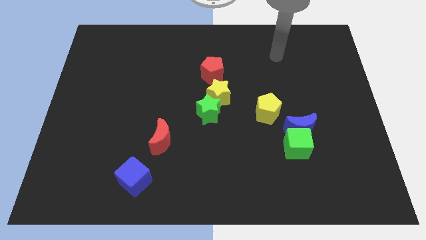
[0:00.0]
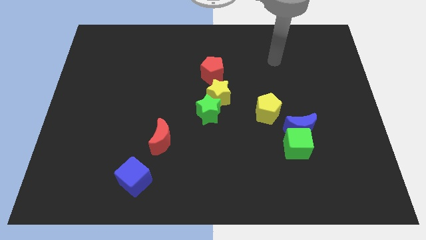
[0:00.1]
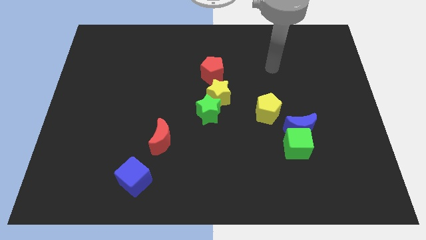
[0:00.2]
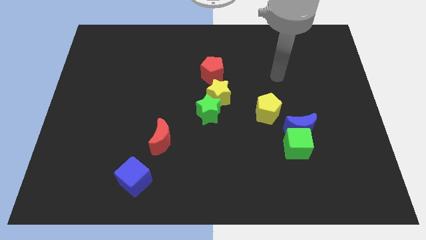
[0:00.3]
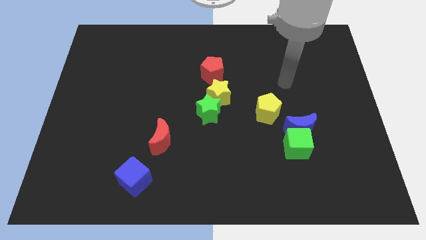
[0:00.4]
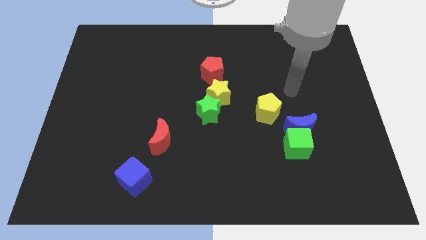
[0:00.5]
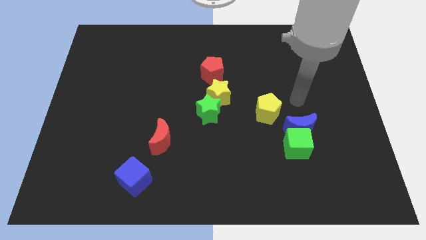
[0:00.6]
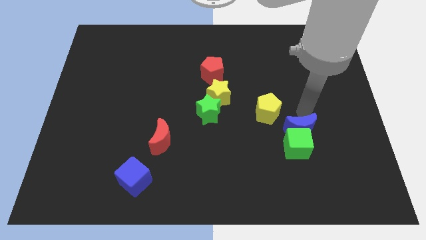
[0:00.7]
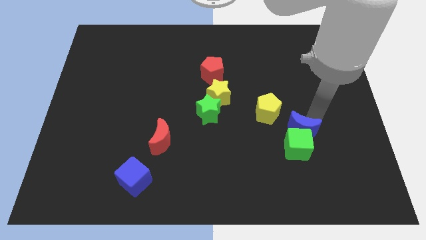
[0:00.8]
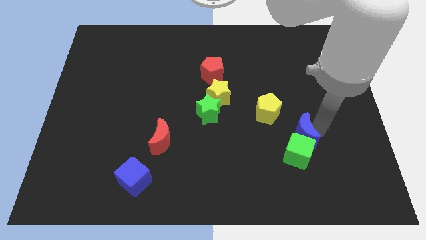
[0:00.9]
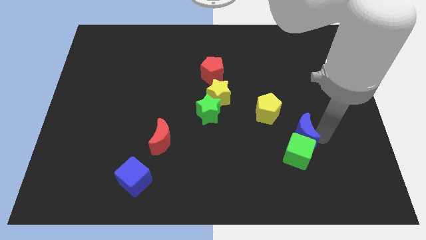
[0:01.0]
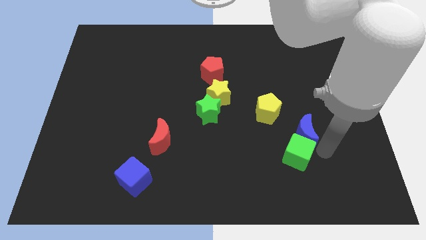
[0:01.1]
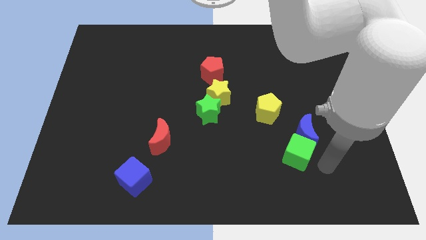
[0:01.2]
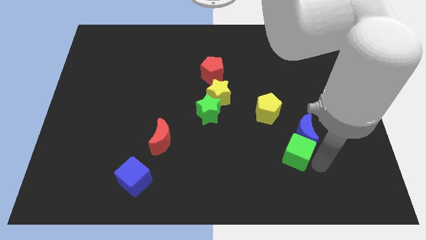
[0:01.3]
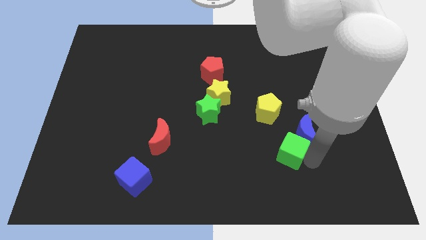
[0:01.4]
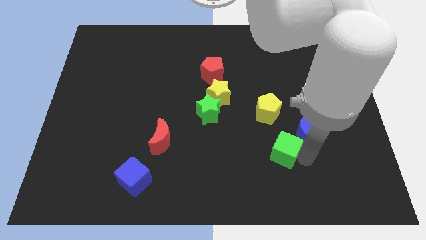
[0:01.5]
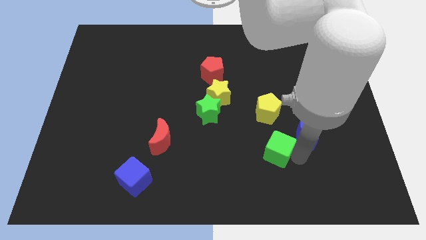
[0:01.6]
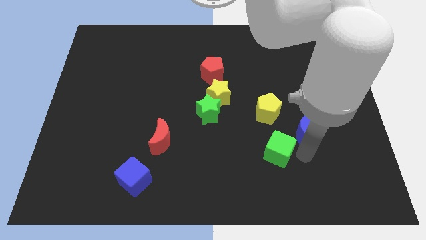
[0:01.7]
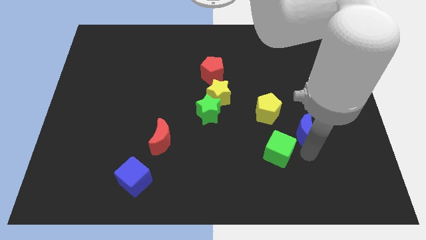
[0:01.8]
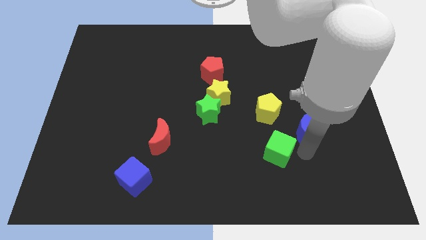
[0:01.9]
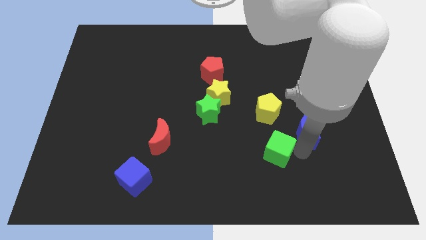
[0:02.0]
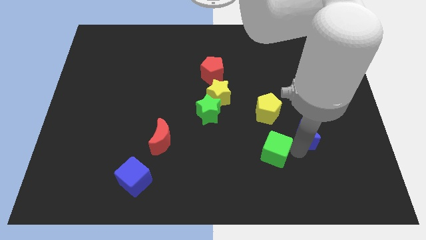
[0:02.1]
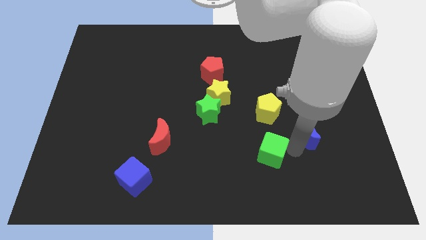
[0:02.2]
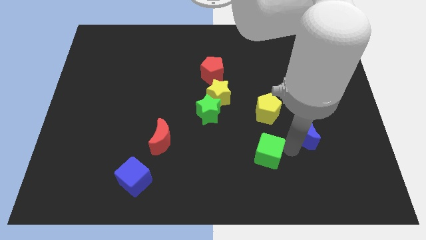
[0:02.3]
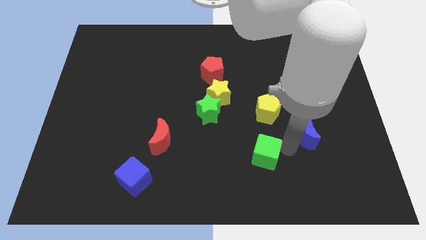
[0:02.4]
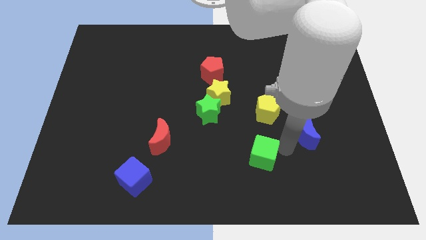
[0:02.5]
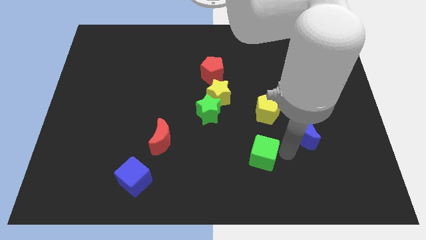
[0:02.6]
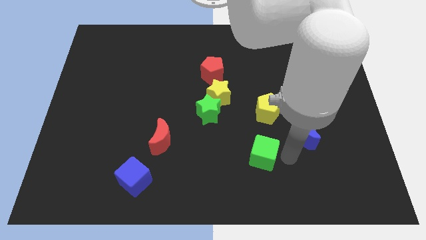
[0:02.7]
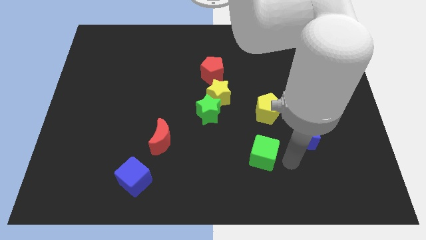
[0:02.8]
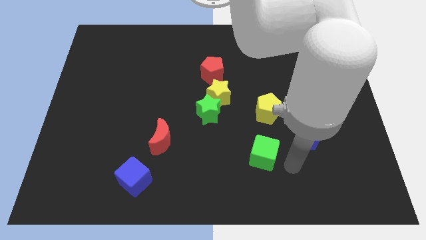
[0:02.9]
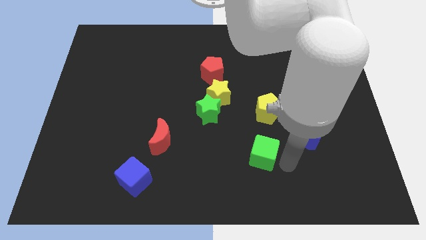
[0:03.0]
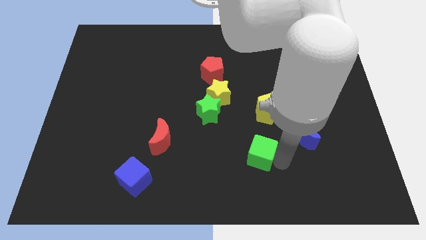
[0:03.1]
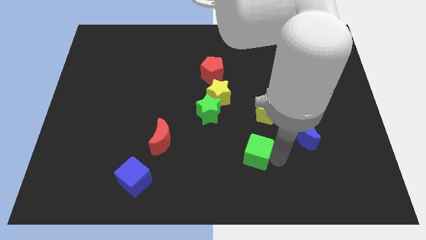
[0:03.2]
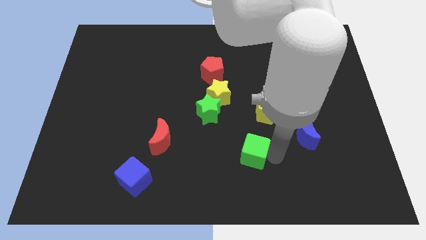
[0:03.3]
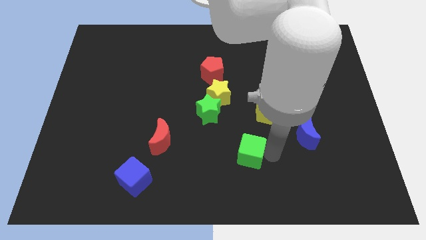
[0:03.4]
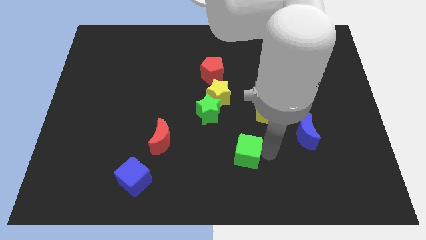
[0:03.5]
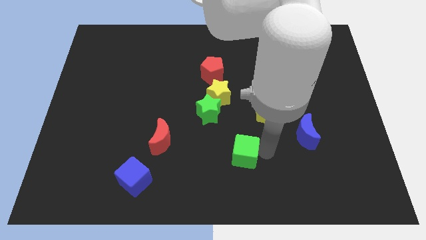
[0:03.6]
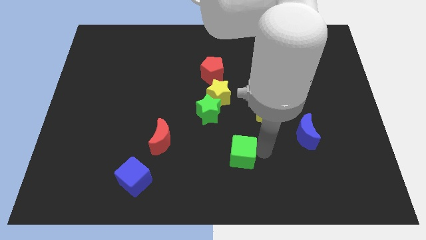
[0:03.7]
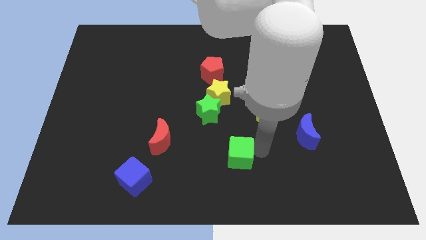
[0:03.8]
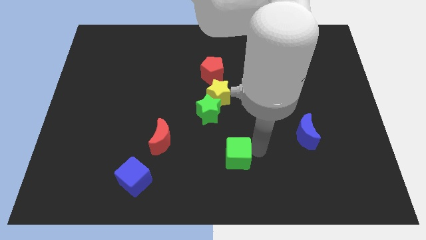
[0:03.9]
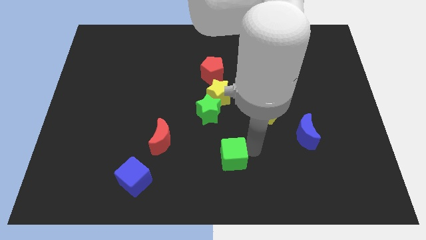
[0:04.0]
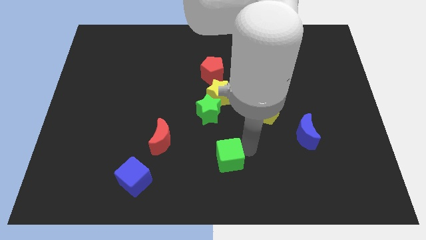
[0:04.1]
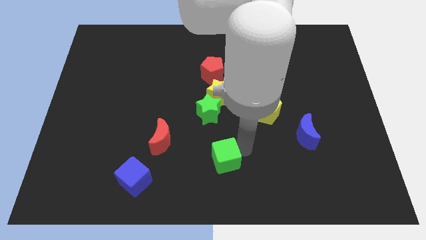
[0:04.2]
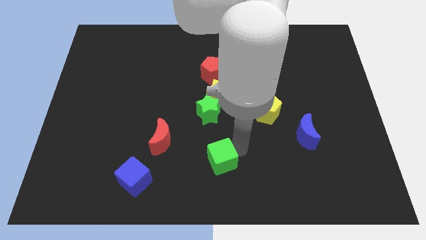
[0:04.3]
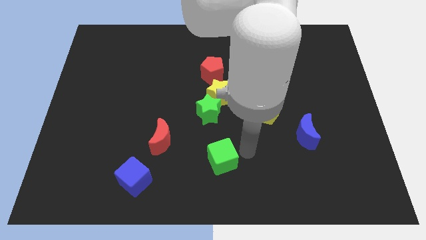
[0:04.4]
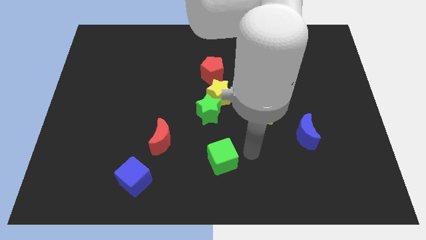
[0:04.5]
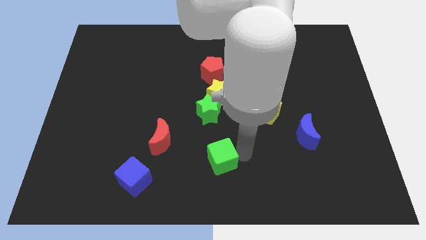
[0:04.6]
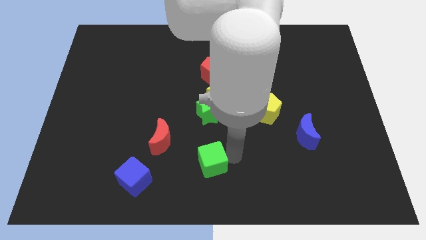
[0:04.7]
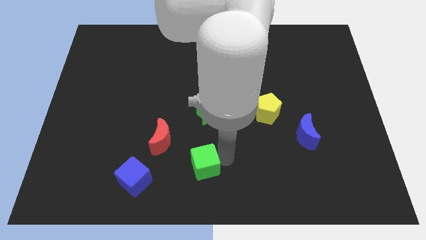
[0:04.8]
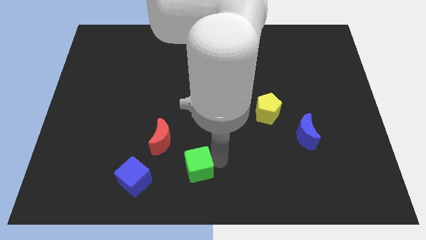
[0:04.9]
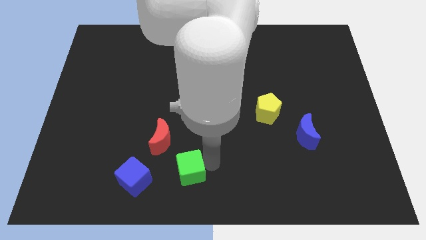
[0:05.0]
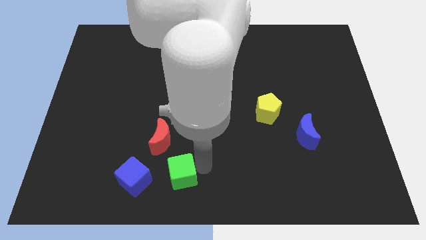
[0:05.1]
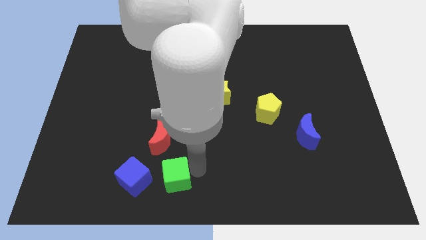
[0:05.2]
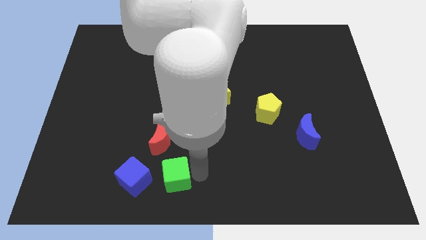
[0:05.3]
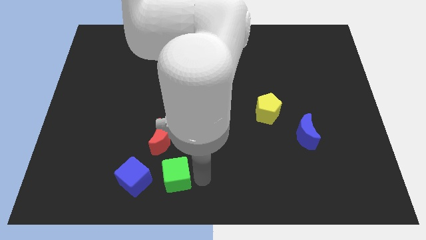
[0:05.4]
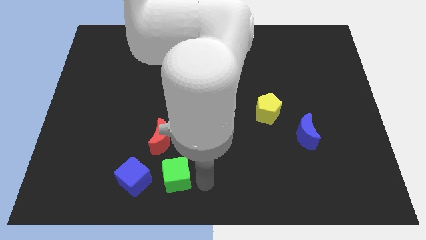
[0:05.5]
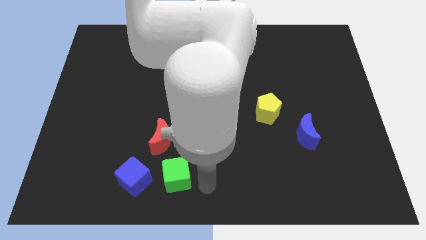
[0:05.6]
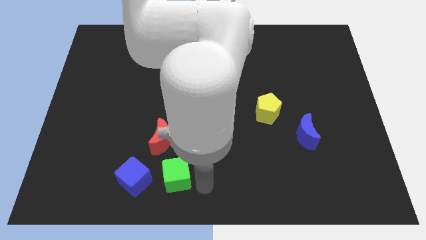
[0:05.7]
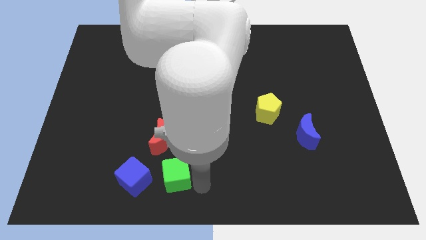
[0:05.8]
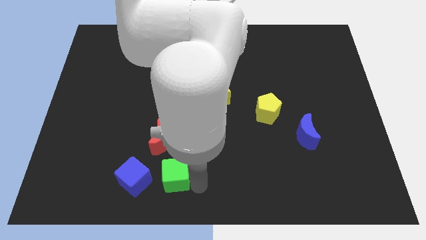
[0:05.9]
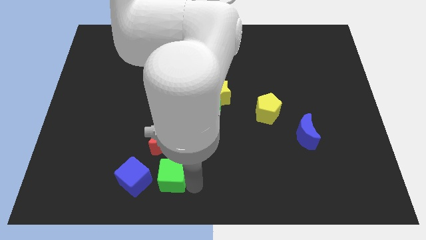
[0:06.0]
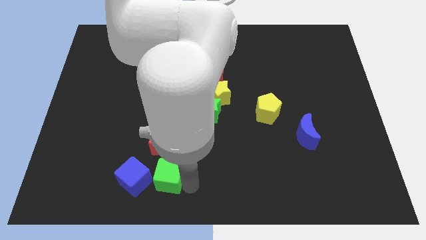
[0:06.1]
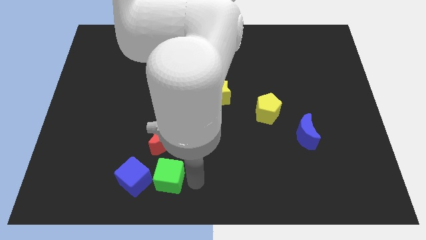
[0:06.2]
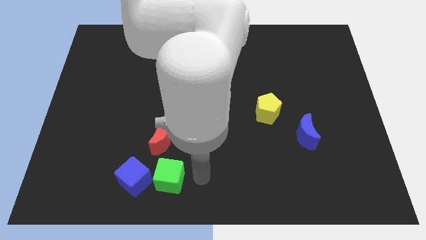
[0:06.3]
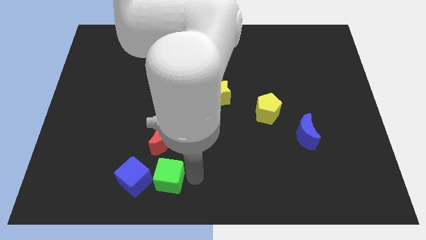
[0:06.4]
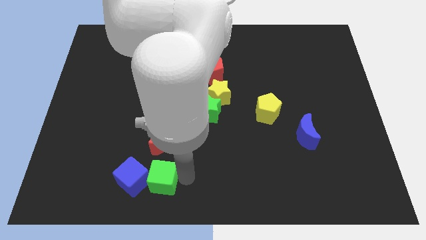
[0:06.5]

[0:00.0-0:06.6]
slide the green cube close to the blue cube
